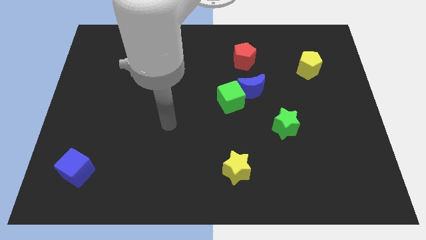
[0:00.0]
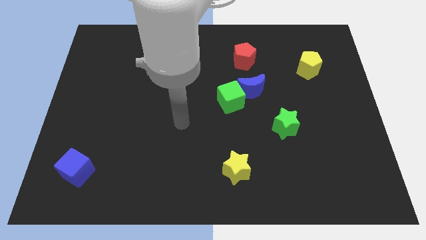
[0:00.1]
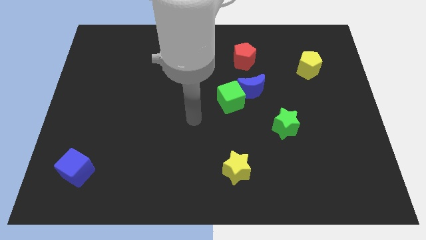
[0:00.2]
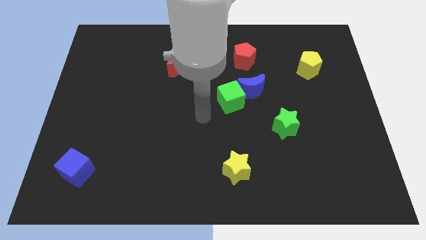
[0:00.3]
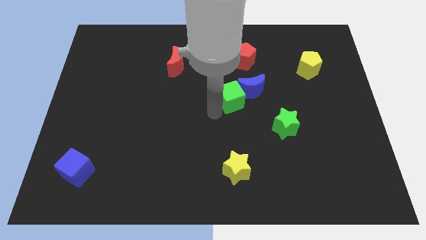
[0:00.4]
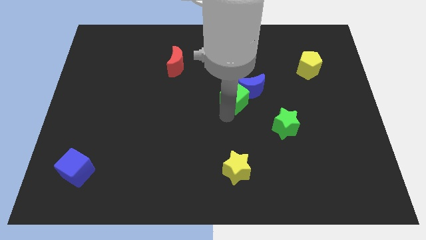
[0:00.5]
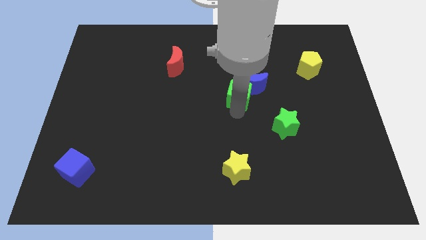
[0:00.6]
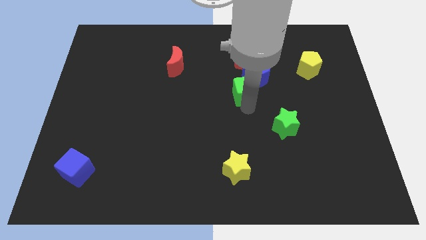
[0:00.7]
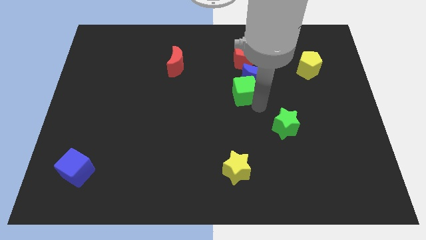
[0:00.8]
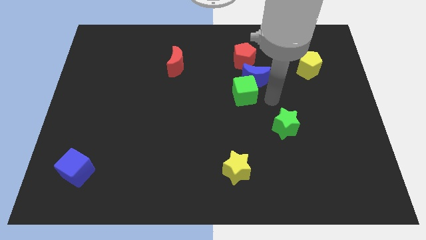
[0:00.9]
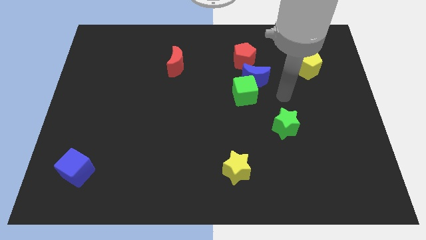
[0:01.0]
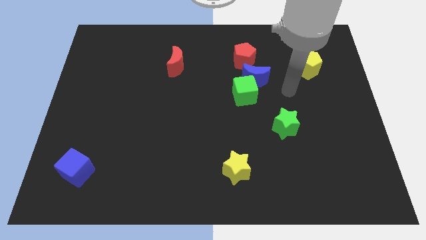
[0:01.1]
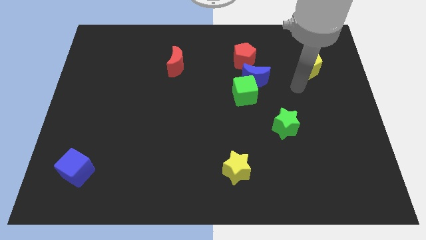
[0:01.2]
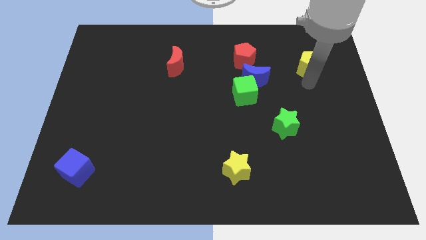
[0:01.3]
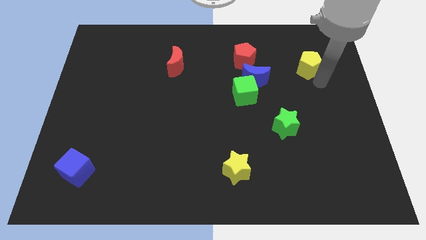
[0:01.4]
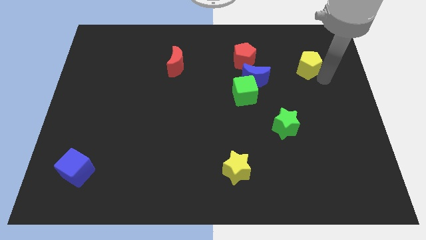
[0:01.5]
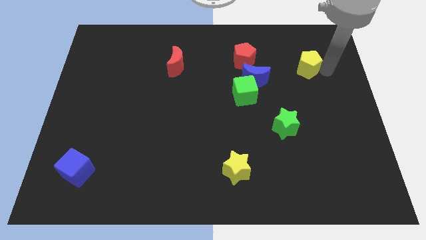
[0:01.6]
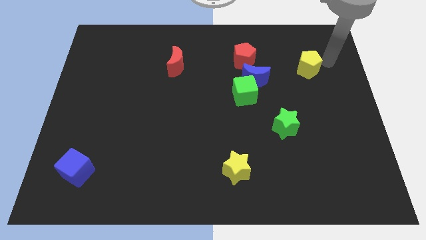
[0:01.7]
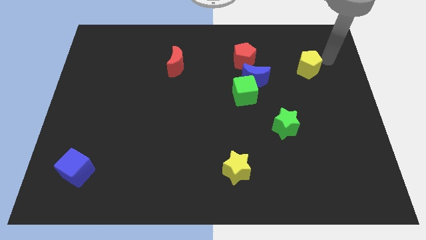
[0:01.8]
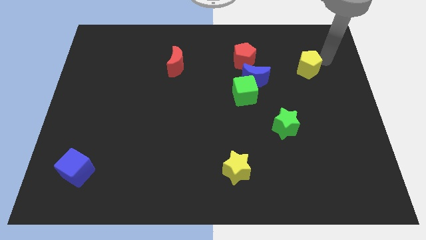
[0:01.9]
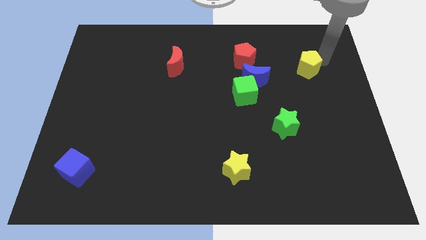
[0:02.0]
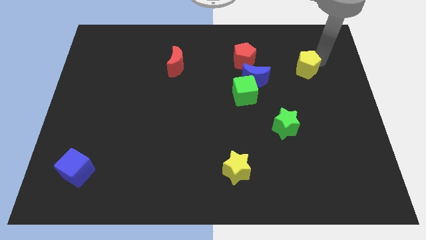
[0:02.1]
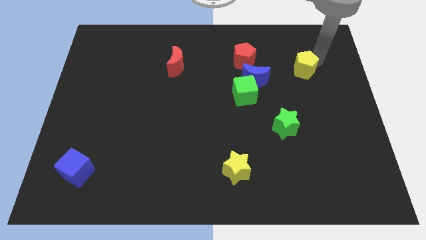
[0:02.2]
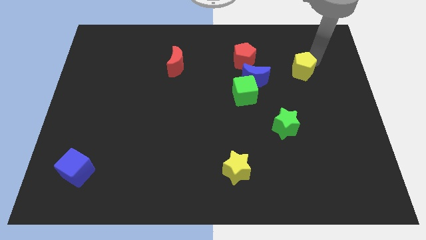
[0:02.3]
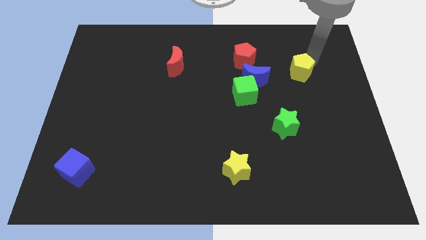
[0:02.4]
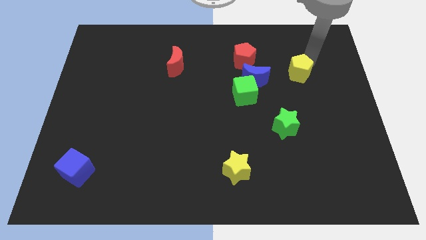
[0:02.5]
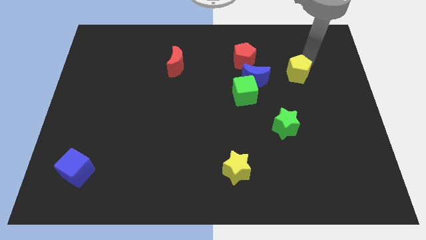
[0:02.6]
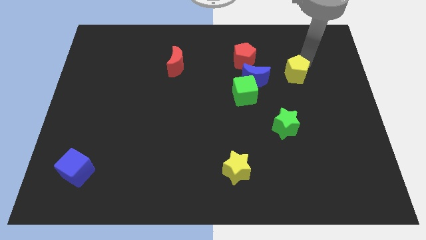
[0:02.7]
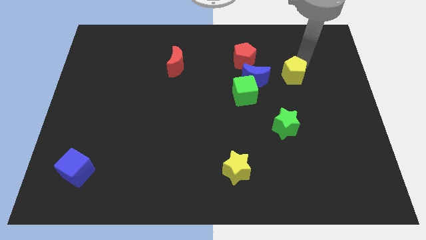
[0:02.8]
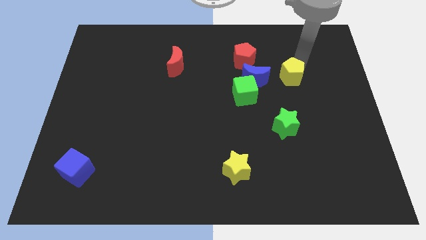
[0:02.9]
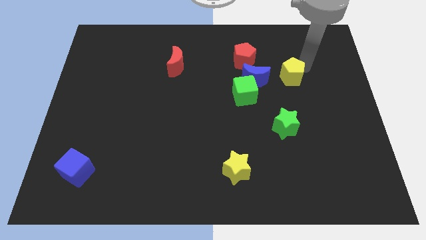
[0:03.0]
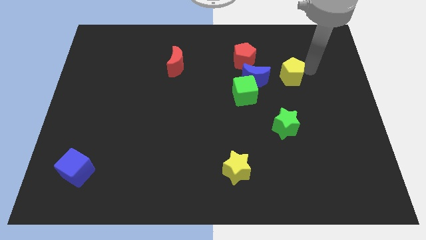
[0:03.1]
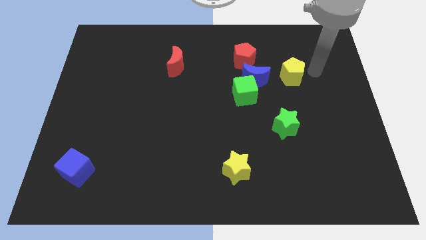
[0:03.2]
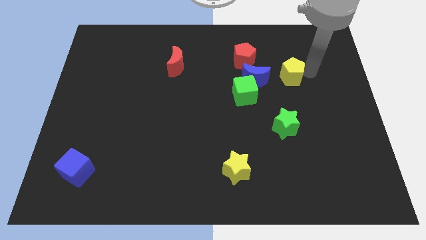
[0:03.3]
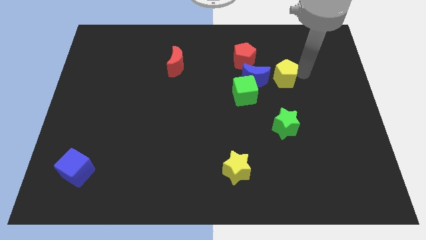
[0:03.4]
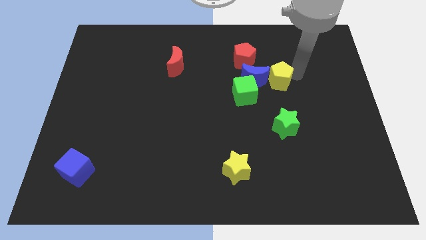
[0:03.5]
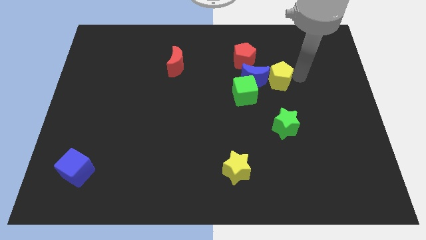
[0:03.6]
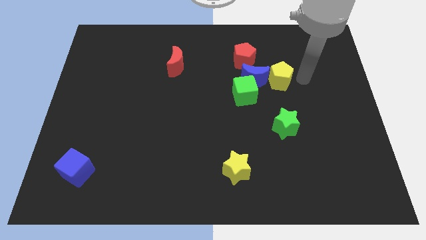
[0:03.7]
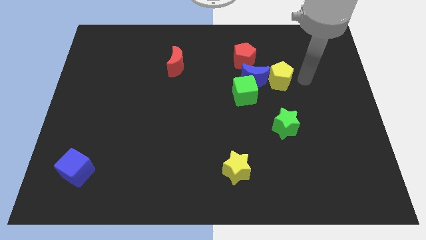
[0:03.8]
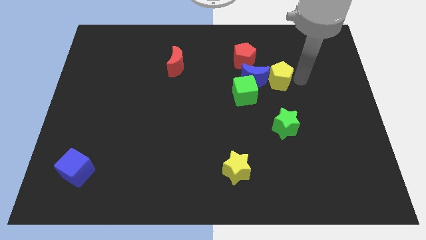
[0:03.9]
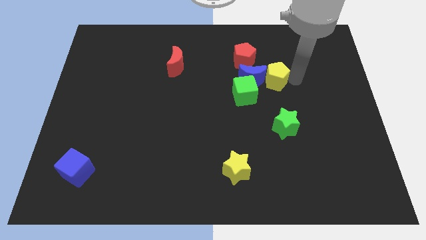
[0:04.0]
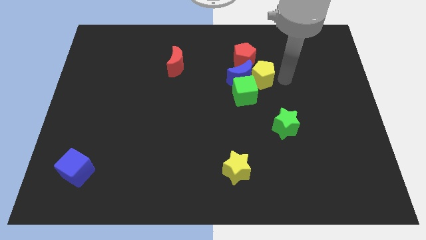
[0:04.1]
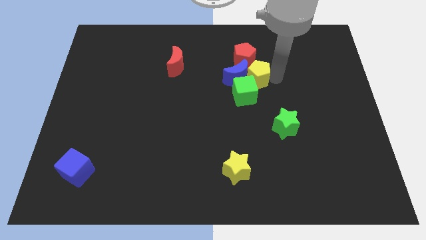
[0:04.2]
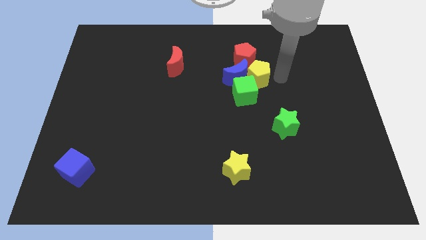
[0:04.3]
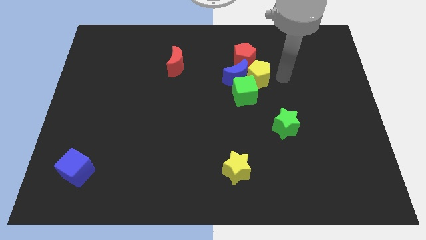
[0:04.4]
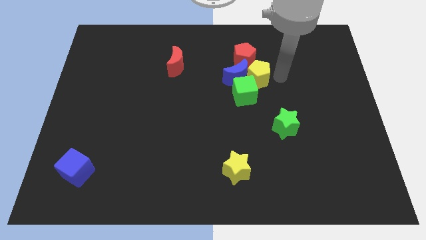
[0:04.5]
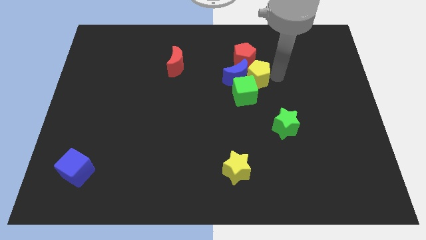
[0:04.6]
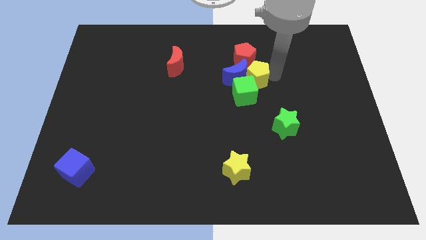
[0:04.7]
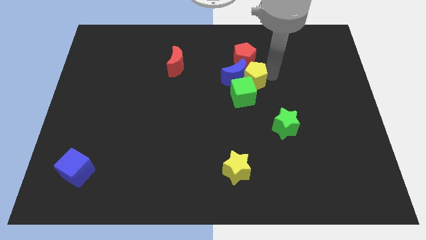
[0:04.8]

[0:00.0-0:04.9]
put the yellow pentagon to the middle of the board

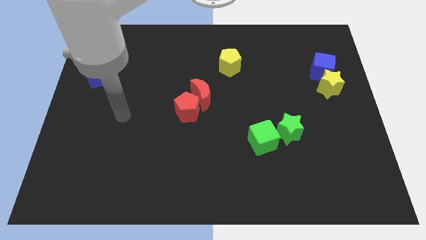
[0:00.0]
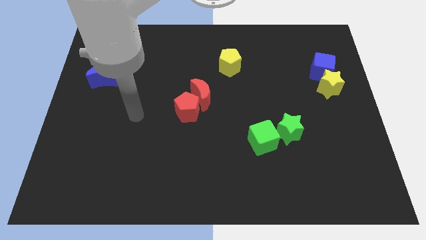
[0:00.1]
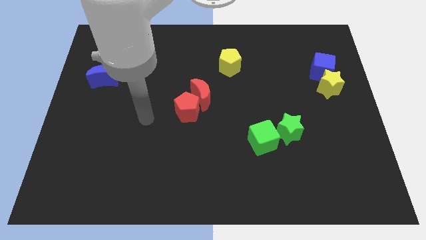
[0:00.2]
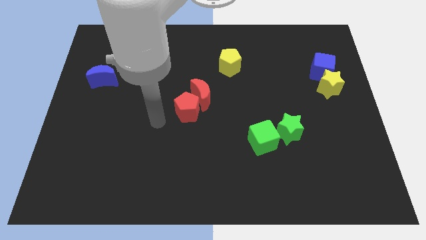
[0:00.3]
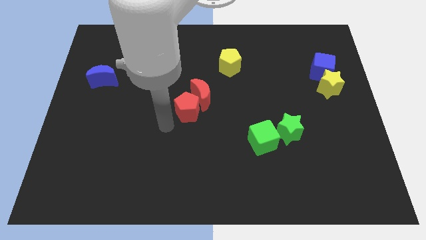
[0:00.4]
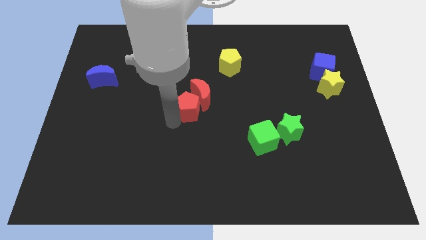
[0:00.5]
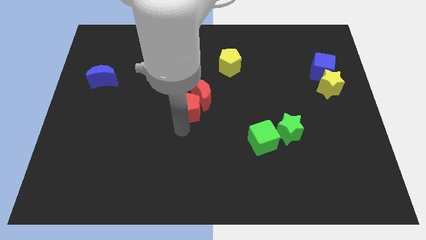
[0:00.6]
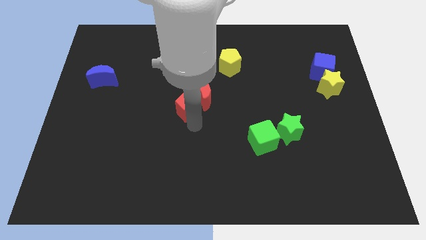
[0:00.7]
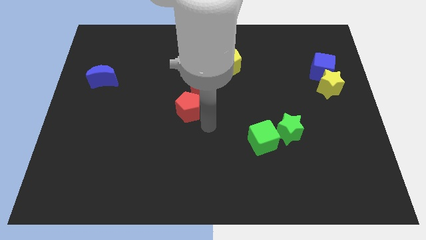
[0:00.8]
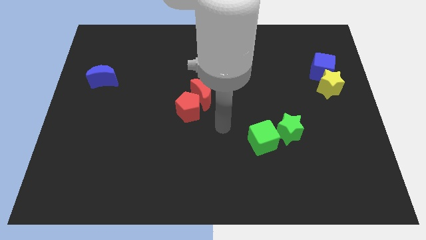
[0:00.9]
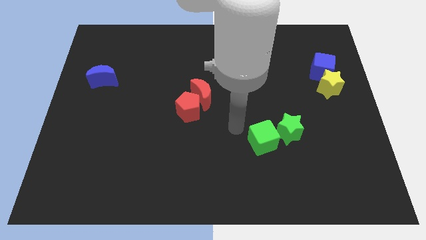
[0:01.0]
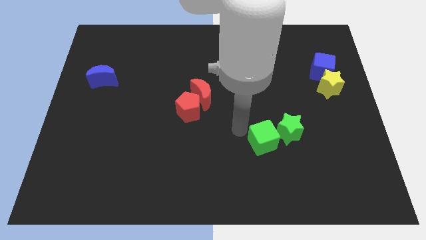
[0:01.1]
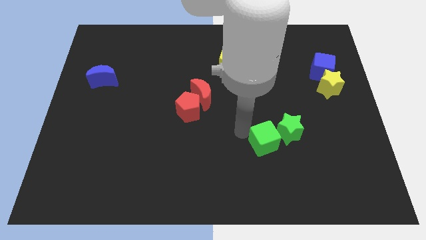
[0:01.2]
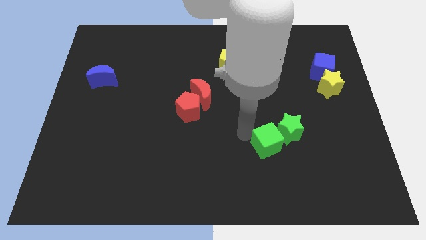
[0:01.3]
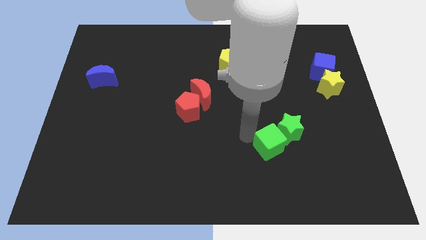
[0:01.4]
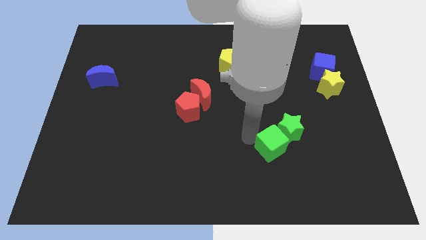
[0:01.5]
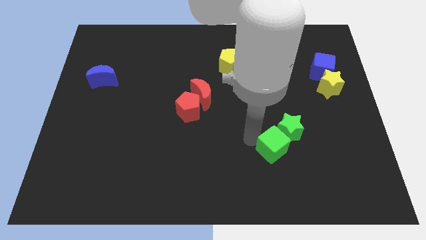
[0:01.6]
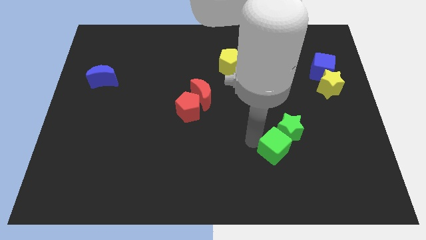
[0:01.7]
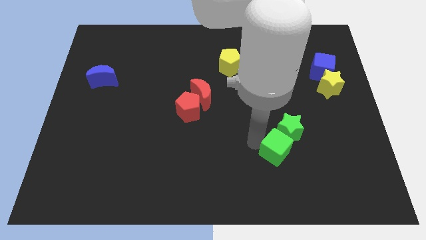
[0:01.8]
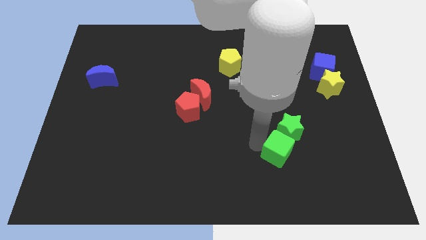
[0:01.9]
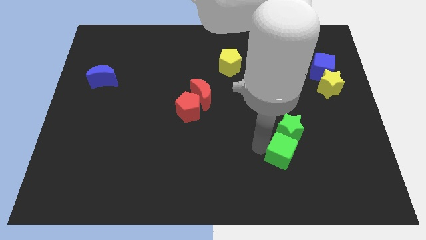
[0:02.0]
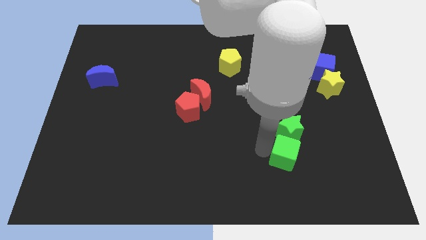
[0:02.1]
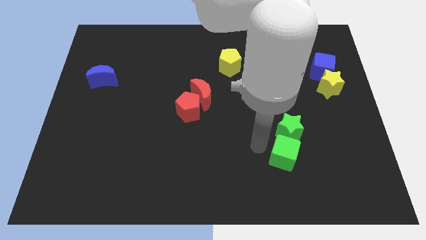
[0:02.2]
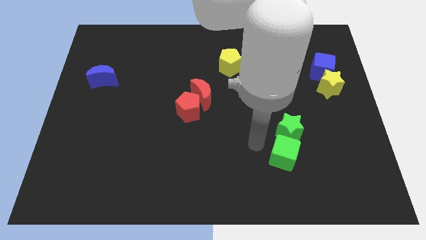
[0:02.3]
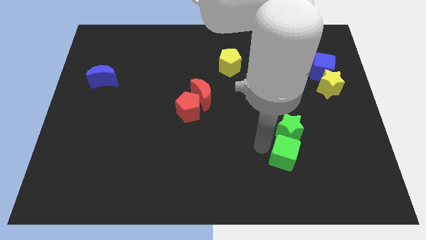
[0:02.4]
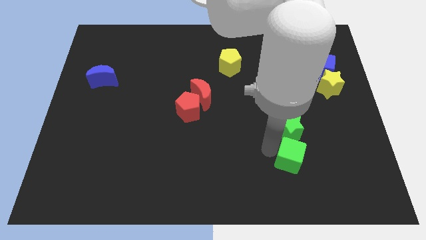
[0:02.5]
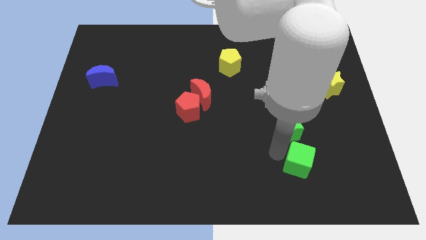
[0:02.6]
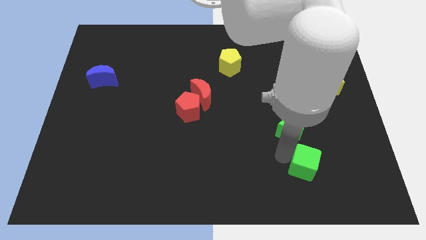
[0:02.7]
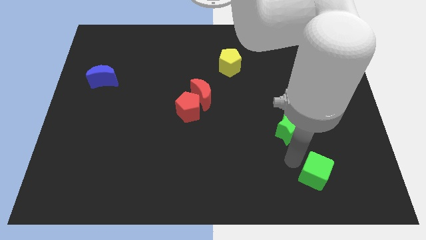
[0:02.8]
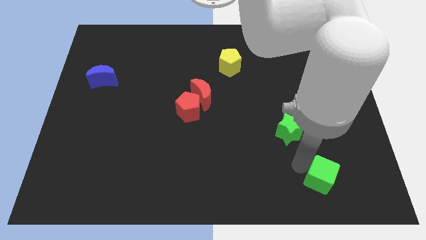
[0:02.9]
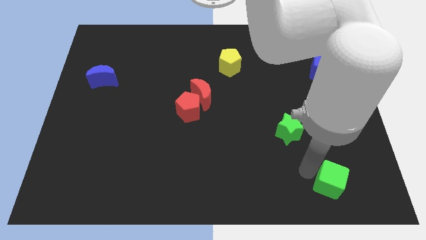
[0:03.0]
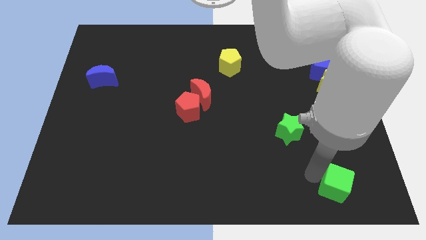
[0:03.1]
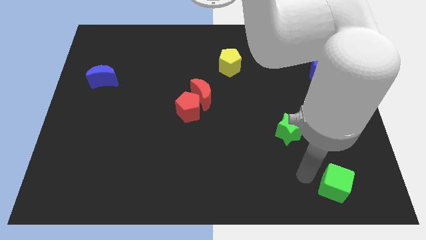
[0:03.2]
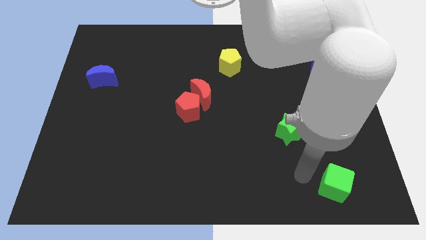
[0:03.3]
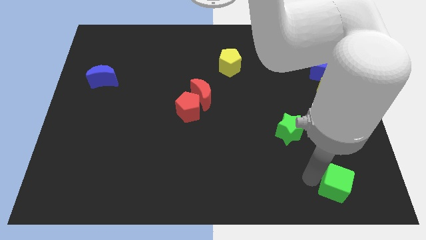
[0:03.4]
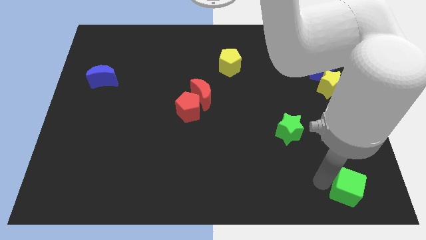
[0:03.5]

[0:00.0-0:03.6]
move the green cube to the bottom right of the board
